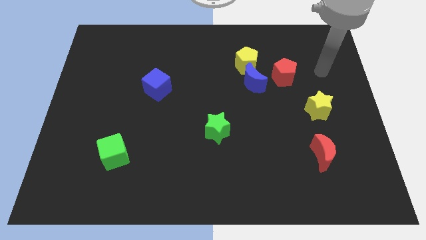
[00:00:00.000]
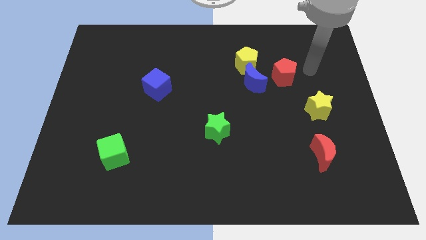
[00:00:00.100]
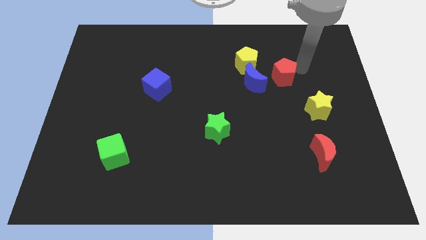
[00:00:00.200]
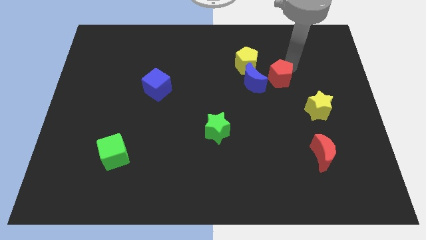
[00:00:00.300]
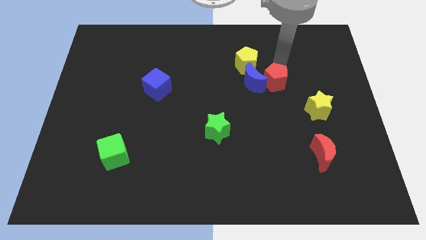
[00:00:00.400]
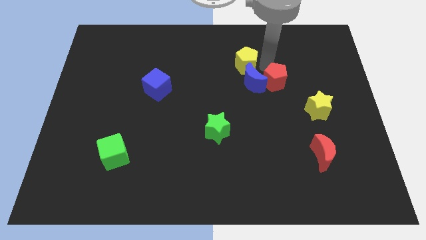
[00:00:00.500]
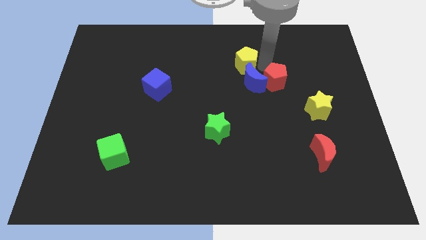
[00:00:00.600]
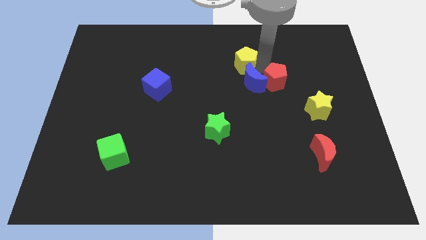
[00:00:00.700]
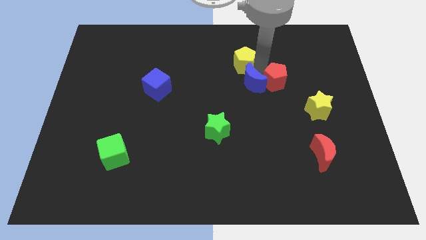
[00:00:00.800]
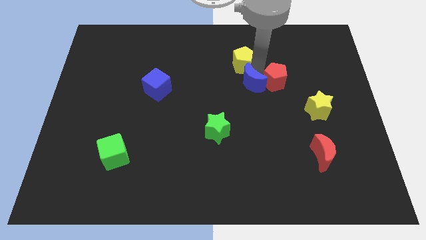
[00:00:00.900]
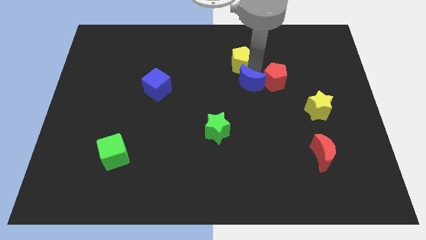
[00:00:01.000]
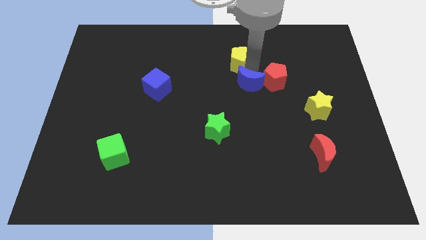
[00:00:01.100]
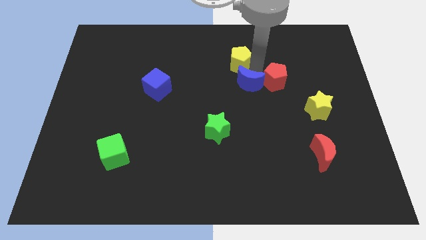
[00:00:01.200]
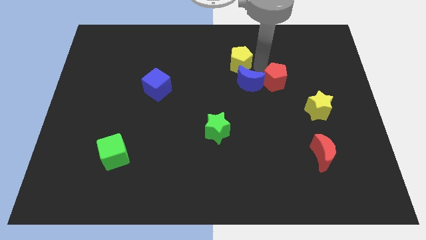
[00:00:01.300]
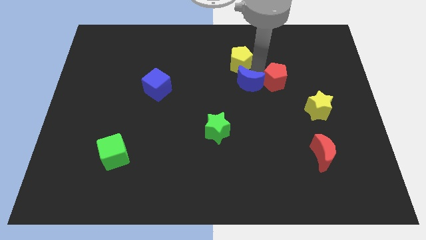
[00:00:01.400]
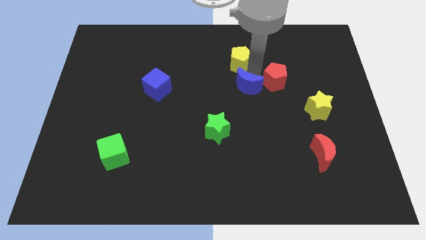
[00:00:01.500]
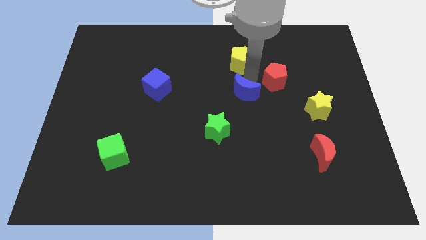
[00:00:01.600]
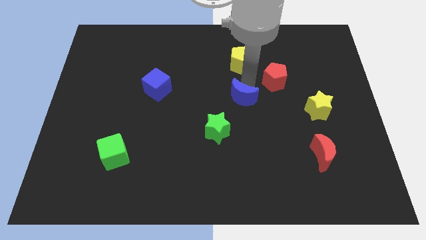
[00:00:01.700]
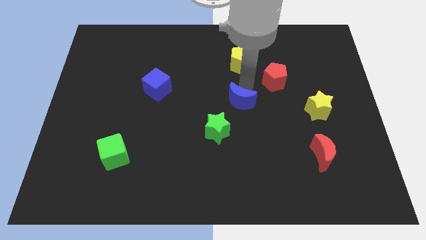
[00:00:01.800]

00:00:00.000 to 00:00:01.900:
separate the blue moon from the yellow pentagon and red pentagon

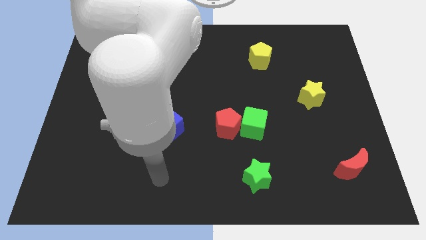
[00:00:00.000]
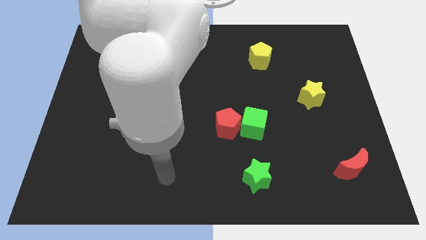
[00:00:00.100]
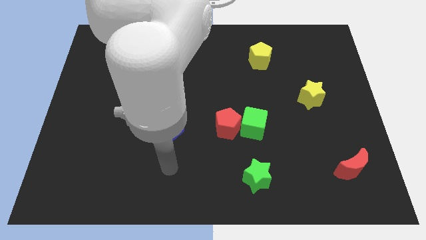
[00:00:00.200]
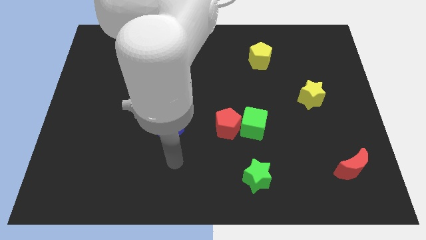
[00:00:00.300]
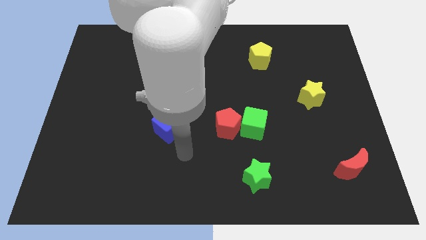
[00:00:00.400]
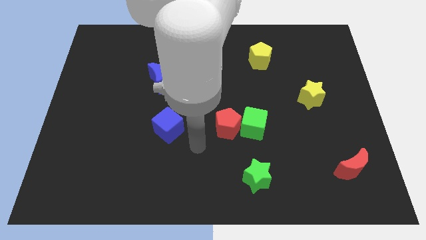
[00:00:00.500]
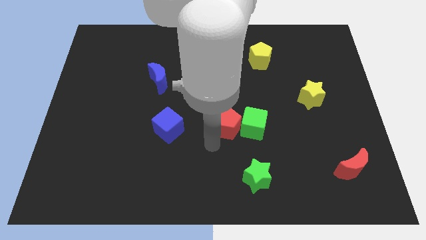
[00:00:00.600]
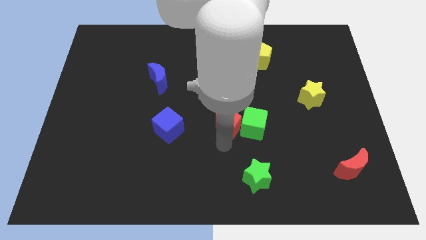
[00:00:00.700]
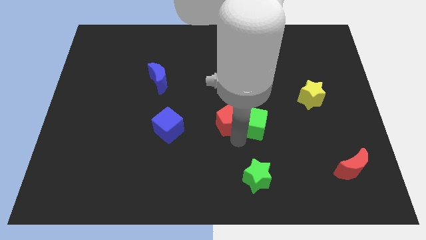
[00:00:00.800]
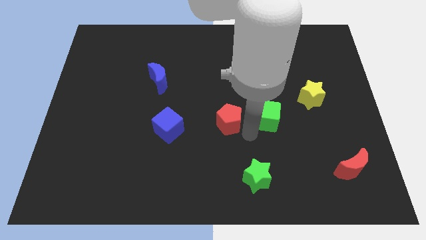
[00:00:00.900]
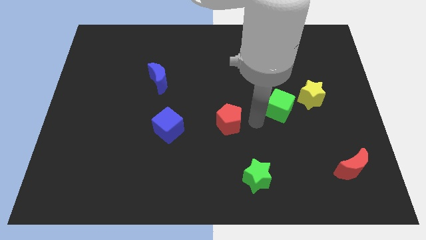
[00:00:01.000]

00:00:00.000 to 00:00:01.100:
pull the red pentagon apart from the green cube

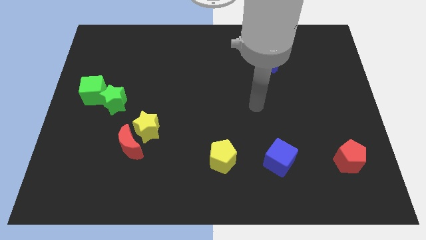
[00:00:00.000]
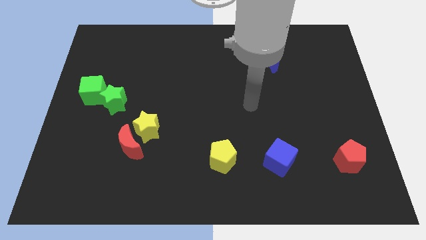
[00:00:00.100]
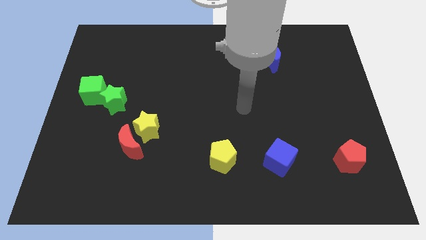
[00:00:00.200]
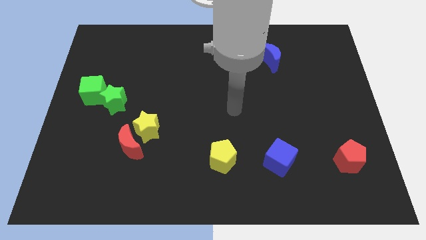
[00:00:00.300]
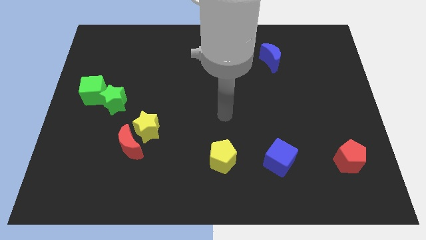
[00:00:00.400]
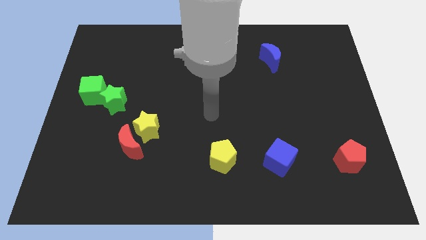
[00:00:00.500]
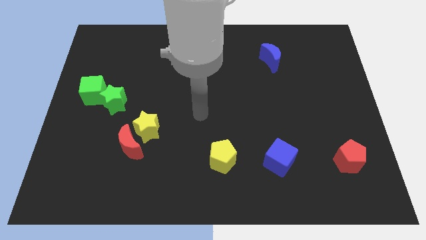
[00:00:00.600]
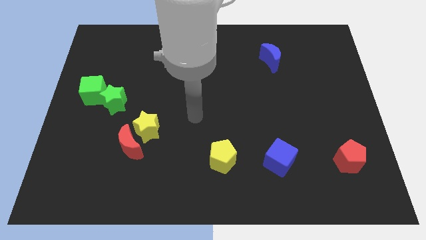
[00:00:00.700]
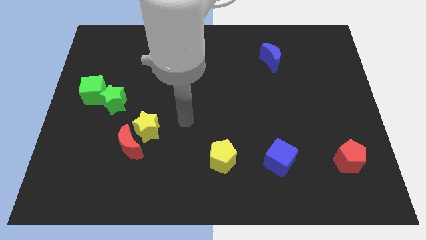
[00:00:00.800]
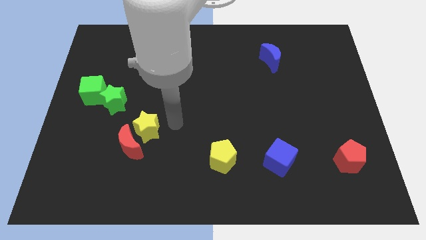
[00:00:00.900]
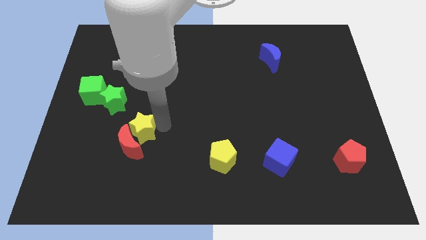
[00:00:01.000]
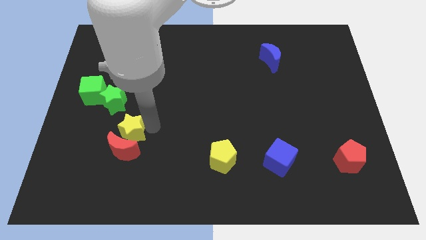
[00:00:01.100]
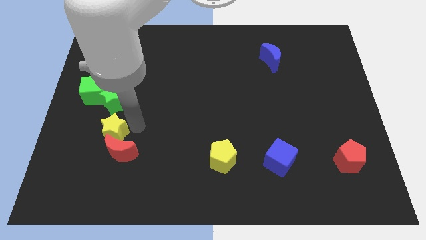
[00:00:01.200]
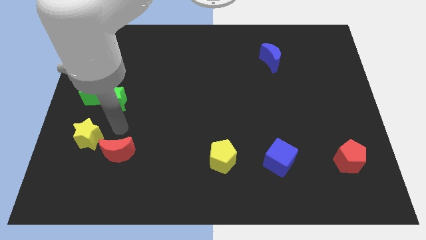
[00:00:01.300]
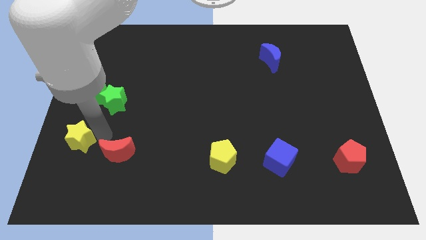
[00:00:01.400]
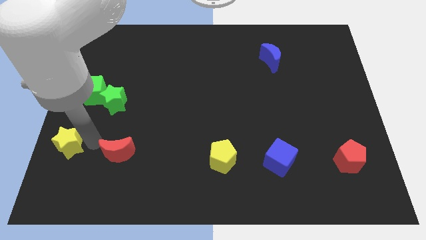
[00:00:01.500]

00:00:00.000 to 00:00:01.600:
move the red moon away from the yellow star

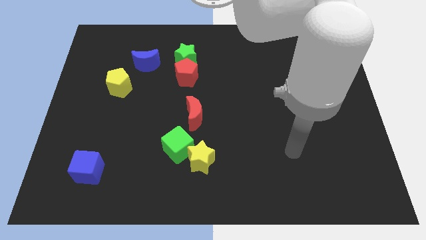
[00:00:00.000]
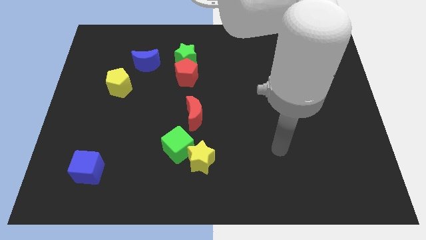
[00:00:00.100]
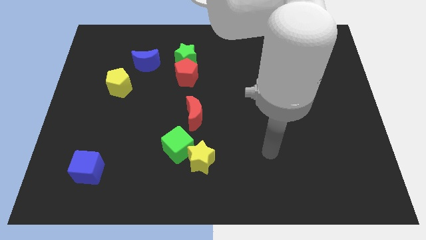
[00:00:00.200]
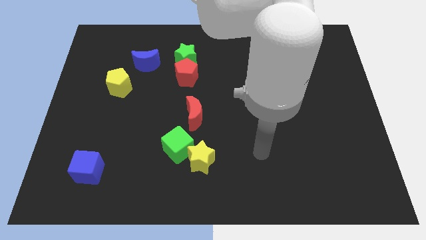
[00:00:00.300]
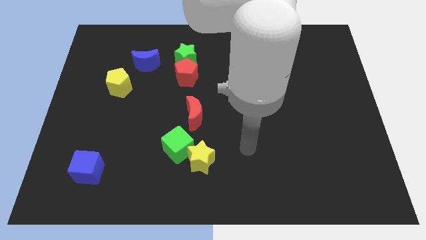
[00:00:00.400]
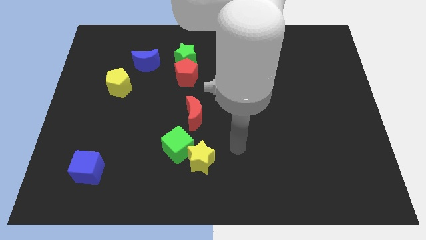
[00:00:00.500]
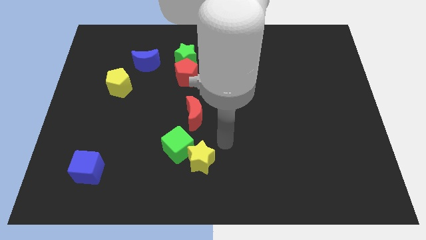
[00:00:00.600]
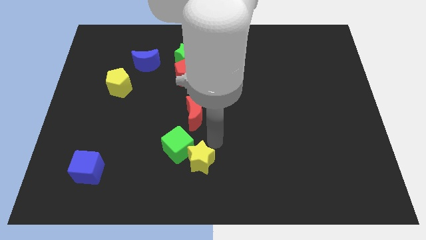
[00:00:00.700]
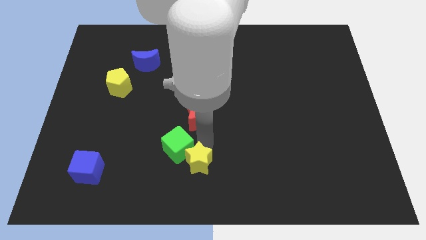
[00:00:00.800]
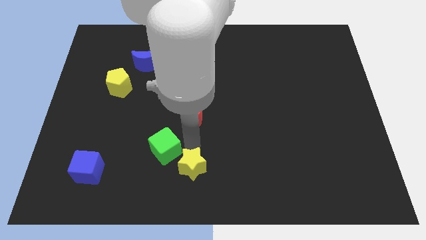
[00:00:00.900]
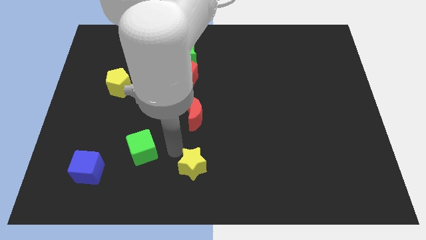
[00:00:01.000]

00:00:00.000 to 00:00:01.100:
separate the yellow star from the green cube

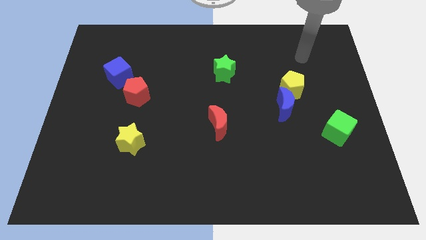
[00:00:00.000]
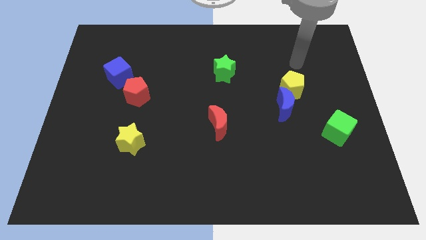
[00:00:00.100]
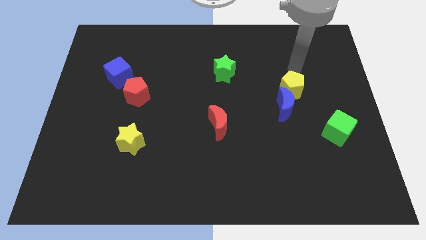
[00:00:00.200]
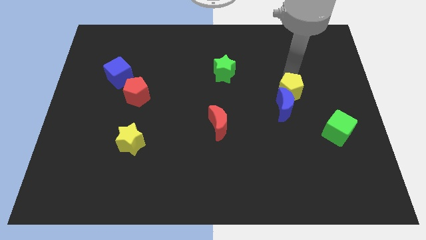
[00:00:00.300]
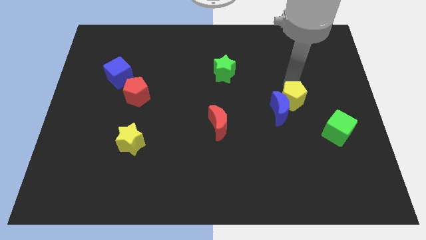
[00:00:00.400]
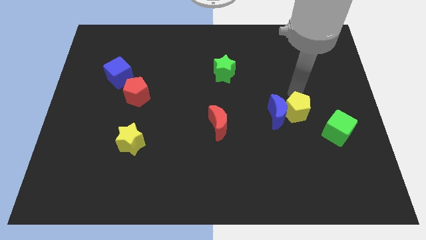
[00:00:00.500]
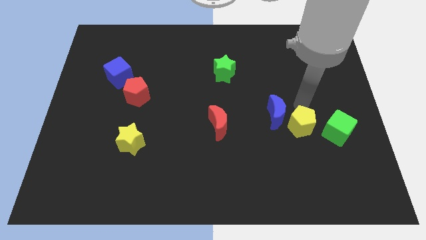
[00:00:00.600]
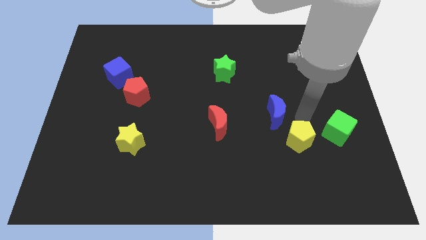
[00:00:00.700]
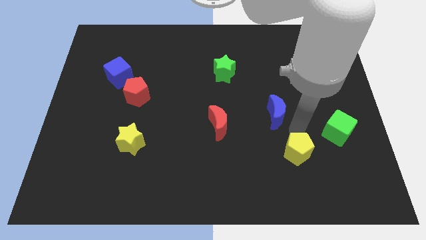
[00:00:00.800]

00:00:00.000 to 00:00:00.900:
separate the blue moon from the yellow pentagon

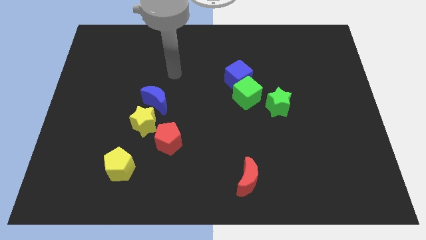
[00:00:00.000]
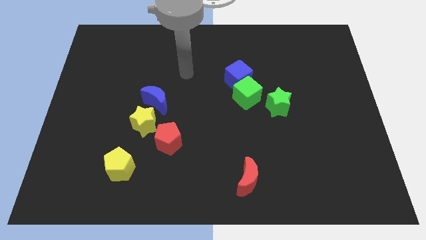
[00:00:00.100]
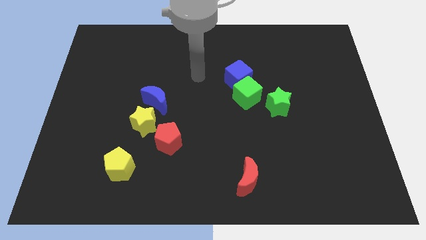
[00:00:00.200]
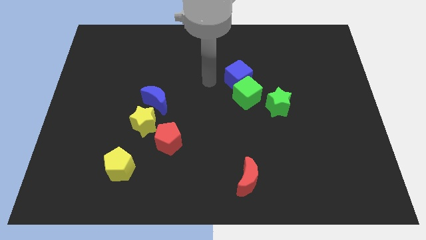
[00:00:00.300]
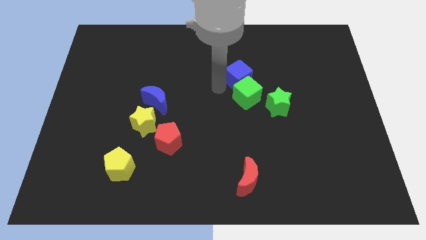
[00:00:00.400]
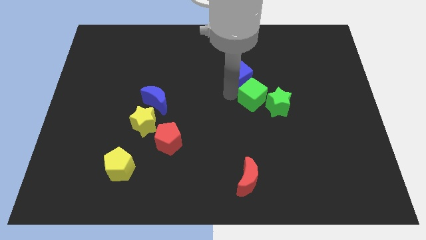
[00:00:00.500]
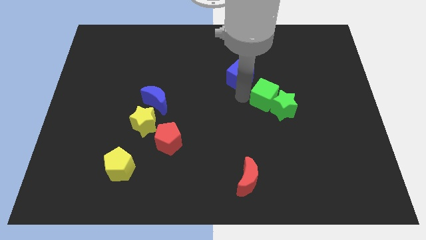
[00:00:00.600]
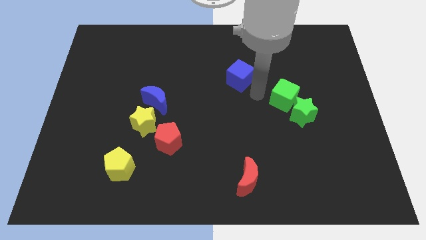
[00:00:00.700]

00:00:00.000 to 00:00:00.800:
pull the blue cube apart from the green cube

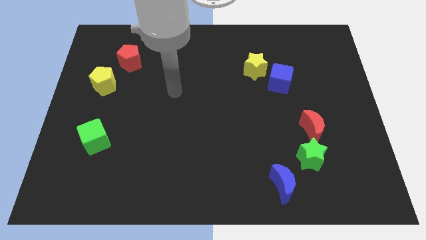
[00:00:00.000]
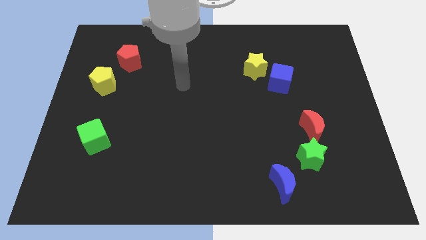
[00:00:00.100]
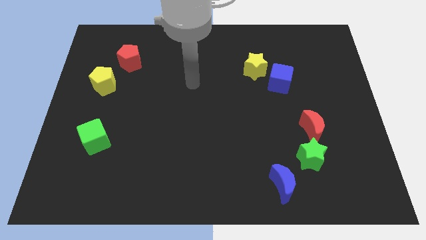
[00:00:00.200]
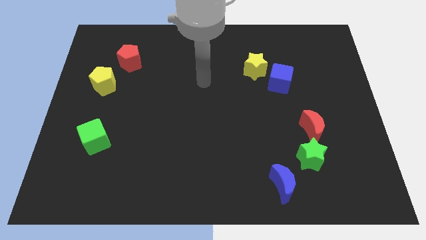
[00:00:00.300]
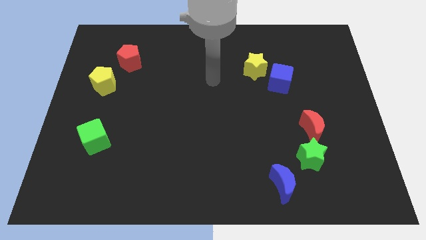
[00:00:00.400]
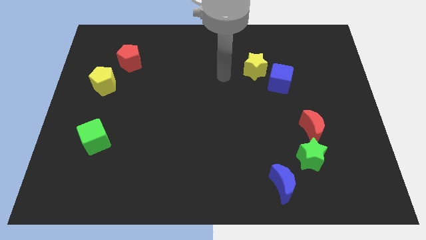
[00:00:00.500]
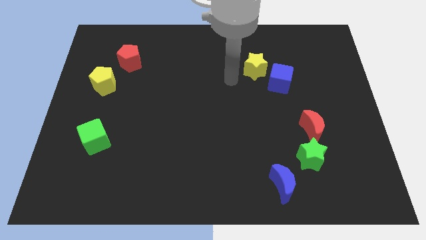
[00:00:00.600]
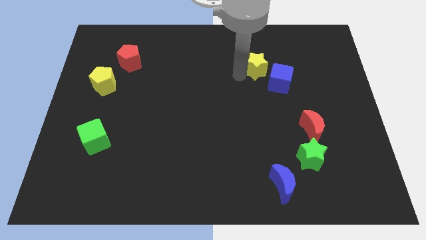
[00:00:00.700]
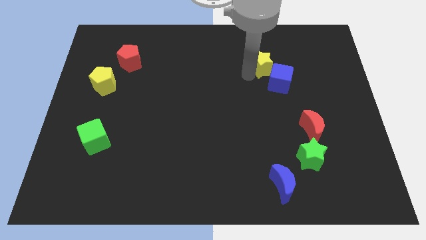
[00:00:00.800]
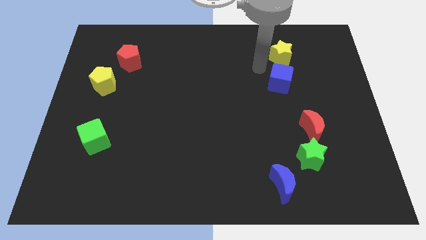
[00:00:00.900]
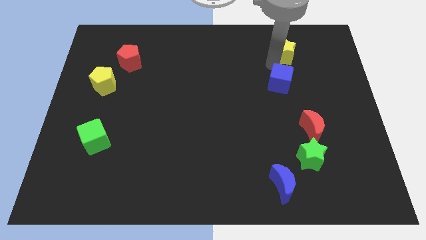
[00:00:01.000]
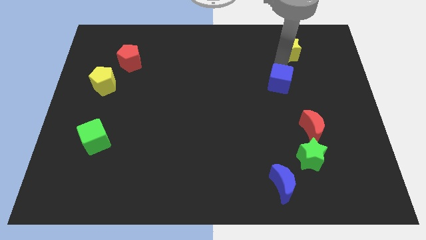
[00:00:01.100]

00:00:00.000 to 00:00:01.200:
move the blue cube away from the yellow star

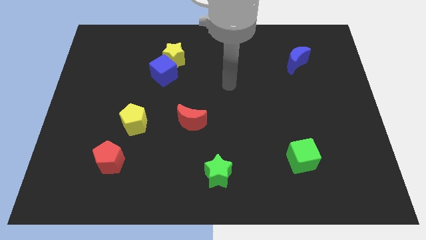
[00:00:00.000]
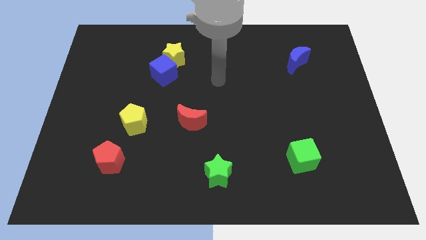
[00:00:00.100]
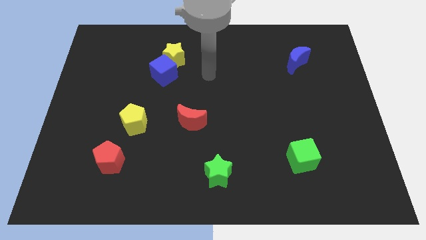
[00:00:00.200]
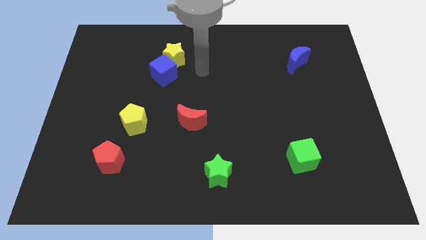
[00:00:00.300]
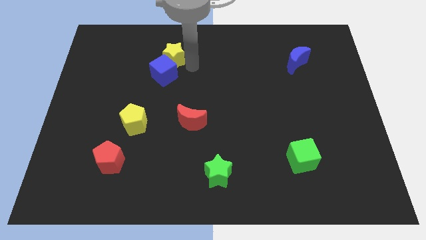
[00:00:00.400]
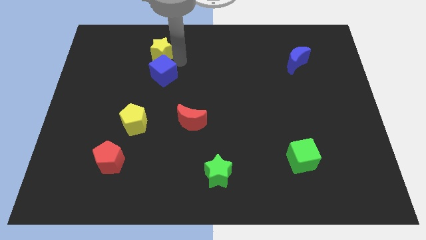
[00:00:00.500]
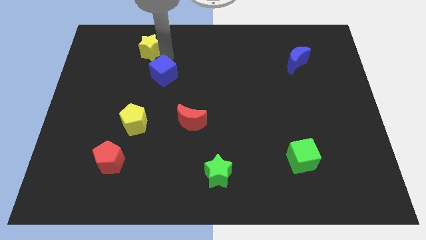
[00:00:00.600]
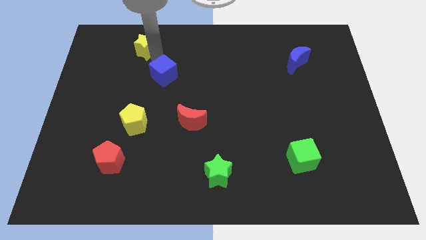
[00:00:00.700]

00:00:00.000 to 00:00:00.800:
pull the blue cube apart from the yellow star
